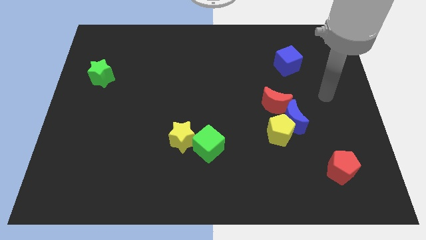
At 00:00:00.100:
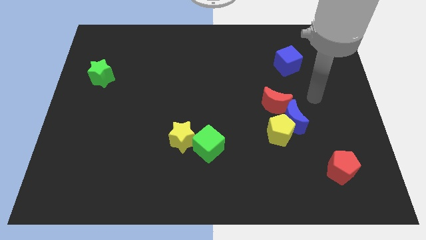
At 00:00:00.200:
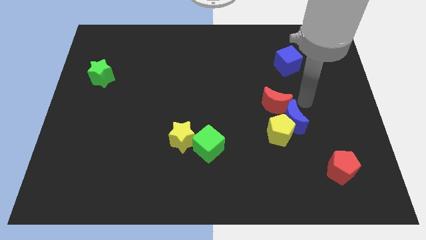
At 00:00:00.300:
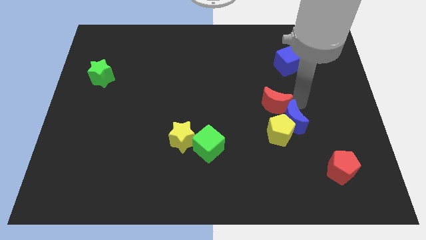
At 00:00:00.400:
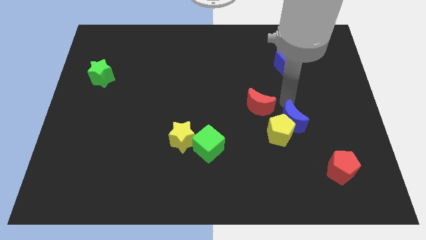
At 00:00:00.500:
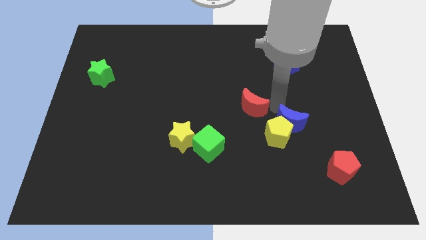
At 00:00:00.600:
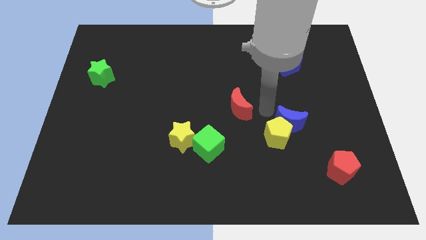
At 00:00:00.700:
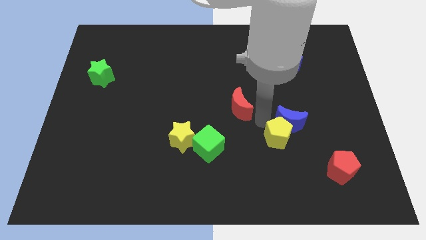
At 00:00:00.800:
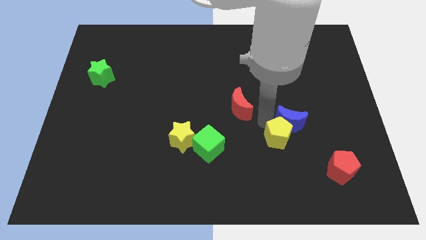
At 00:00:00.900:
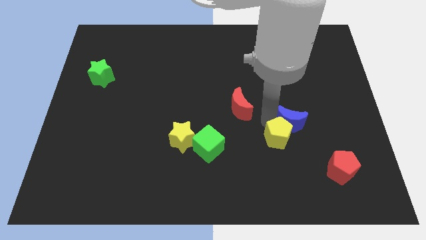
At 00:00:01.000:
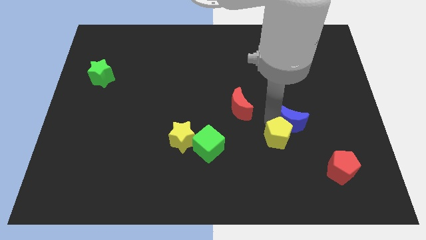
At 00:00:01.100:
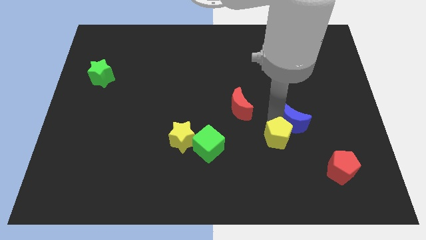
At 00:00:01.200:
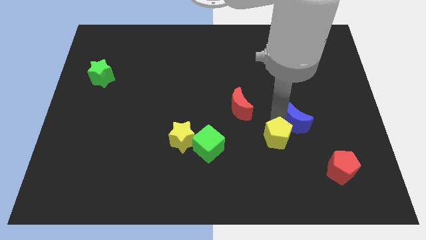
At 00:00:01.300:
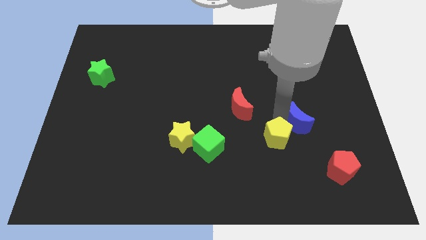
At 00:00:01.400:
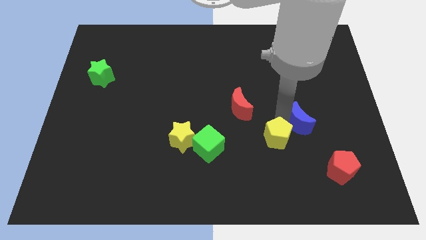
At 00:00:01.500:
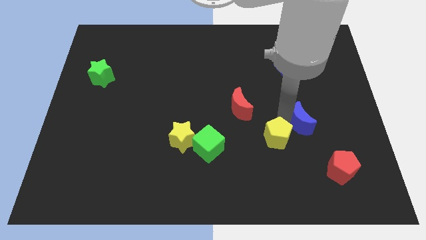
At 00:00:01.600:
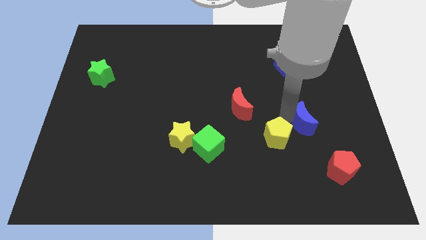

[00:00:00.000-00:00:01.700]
separate the blue moon from the yellow pentagon and red moon

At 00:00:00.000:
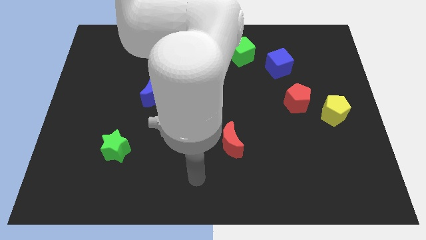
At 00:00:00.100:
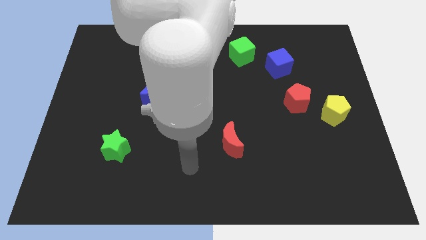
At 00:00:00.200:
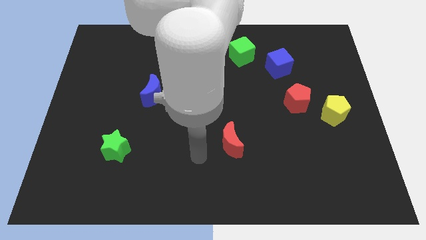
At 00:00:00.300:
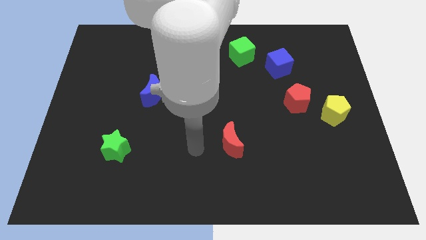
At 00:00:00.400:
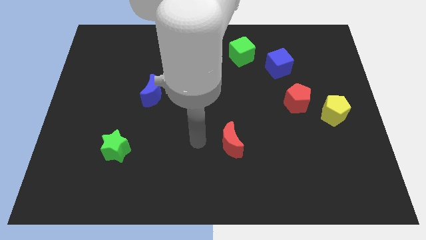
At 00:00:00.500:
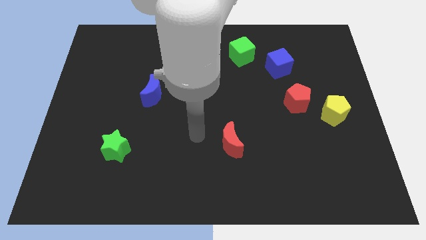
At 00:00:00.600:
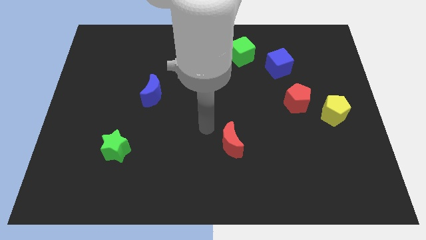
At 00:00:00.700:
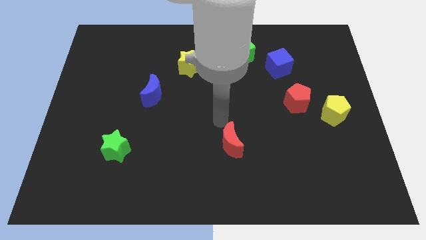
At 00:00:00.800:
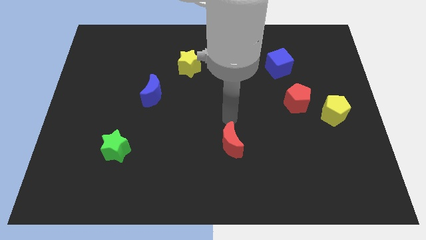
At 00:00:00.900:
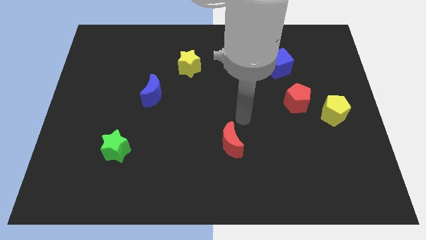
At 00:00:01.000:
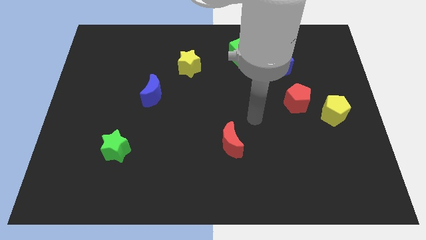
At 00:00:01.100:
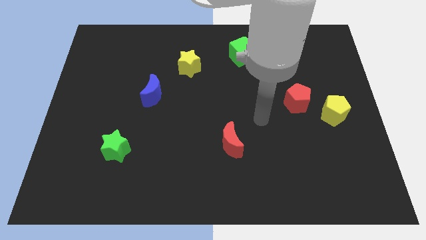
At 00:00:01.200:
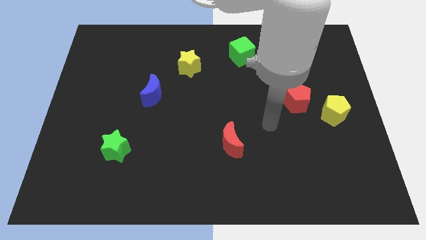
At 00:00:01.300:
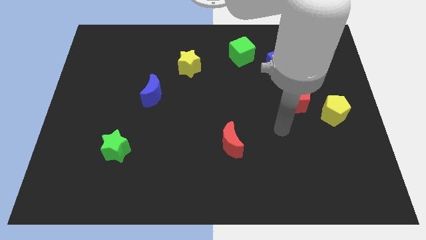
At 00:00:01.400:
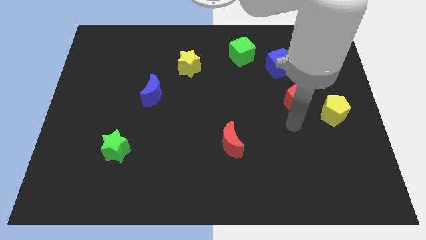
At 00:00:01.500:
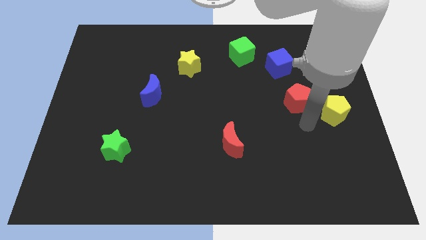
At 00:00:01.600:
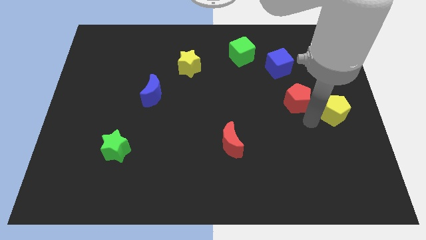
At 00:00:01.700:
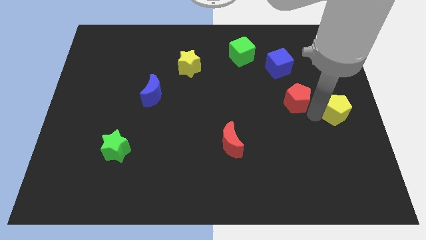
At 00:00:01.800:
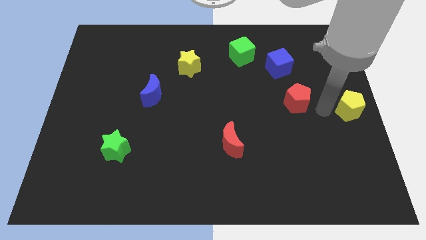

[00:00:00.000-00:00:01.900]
move the red pentagon away from the yellow pentagon

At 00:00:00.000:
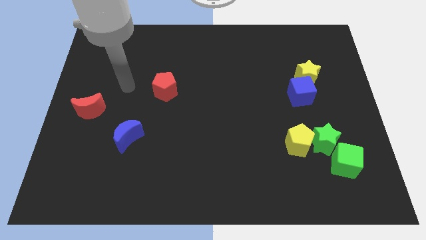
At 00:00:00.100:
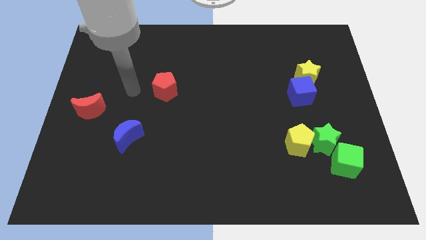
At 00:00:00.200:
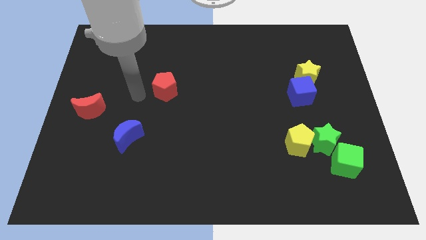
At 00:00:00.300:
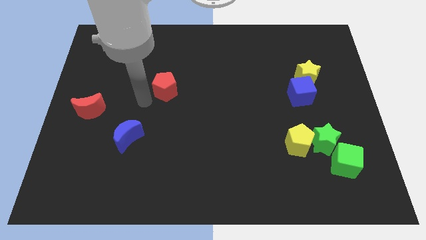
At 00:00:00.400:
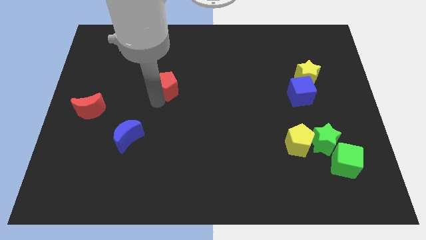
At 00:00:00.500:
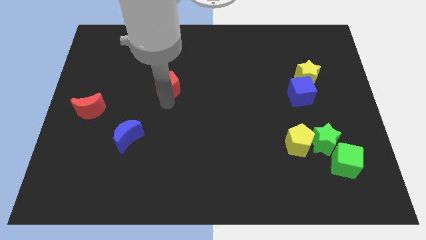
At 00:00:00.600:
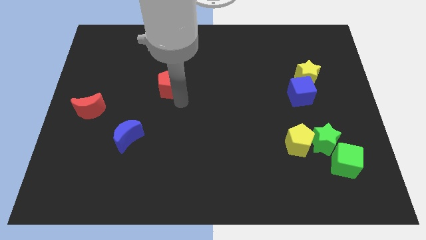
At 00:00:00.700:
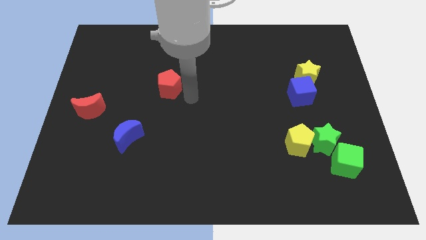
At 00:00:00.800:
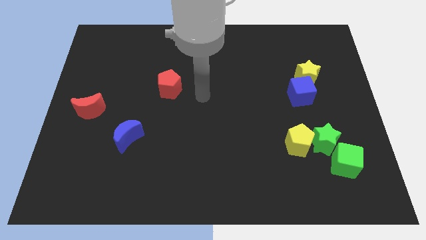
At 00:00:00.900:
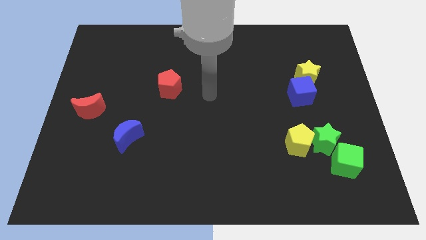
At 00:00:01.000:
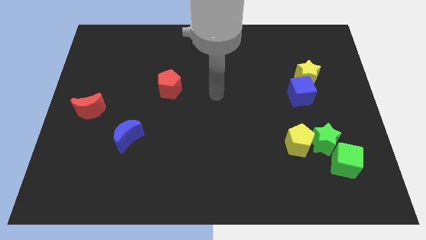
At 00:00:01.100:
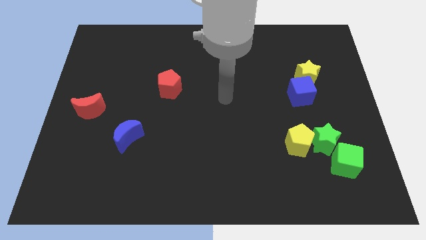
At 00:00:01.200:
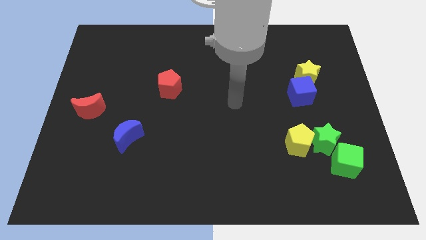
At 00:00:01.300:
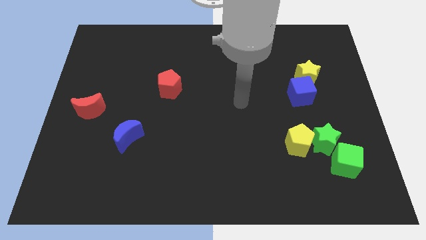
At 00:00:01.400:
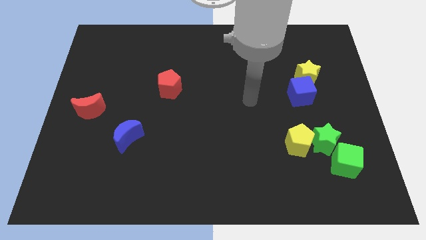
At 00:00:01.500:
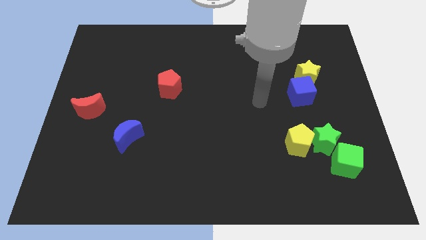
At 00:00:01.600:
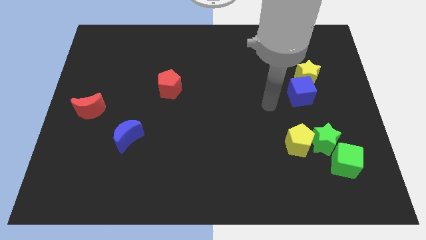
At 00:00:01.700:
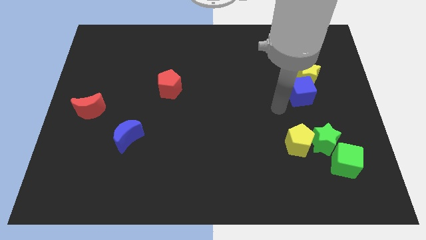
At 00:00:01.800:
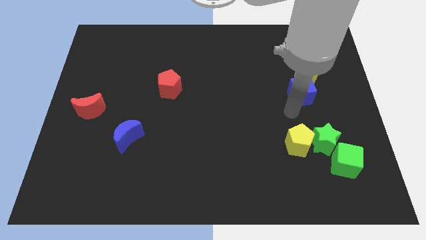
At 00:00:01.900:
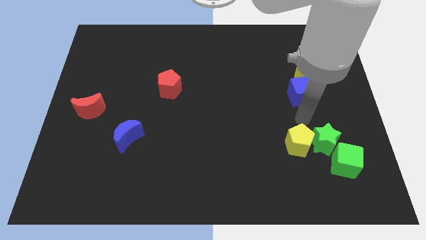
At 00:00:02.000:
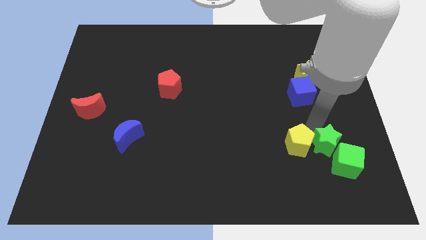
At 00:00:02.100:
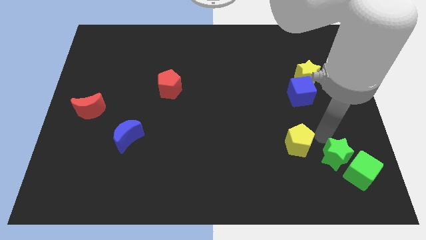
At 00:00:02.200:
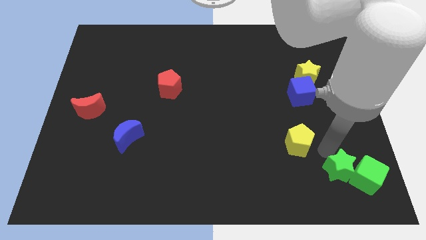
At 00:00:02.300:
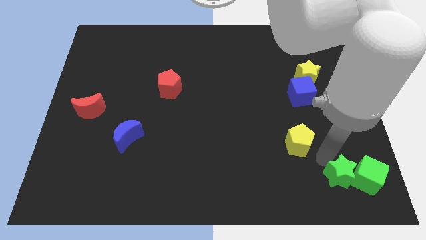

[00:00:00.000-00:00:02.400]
pull the yellow pentagon apart from the green star

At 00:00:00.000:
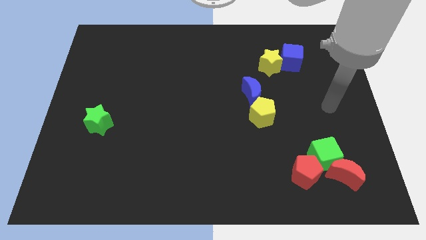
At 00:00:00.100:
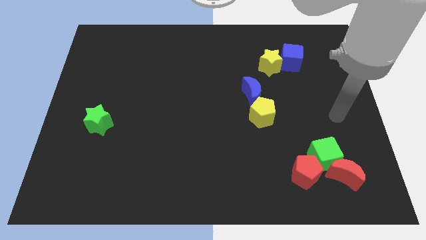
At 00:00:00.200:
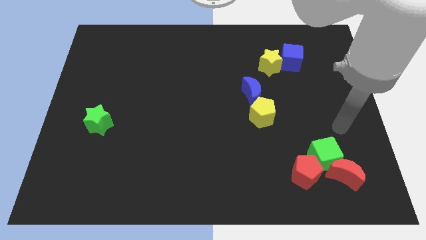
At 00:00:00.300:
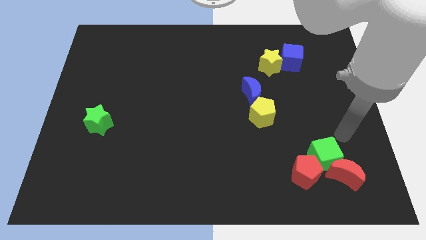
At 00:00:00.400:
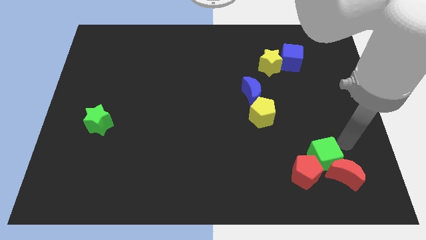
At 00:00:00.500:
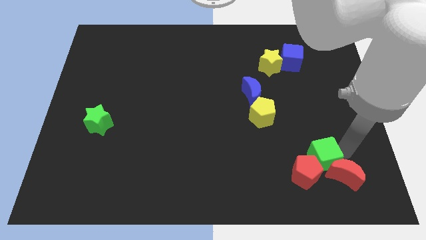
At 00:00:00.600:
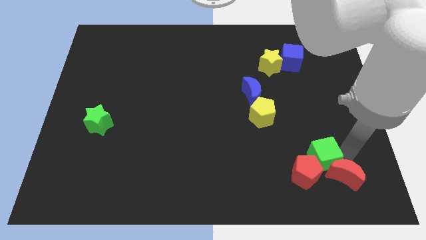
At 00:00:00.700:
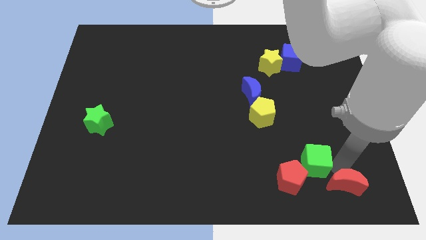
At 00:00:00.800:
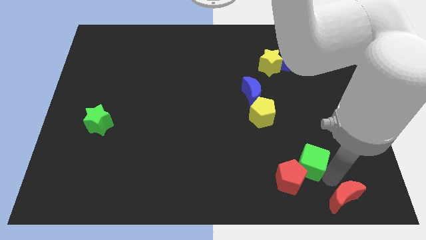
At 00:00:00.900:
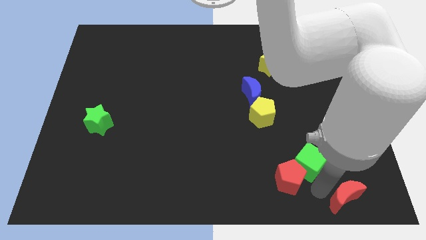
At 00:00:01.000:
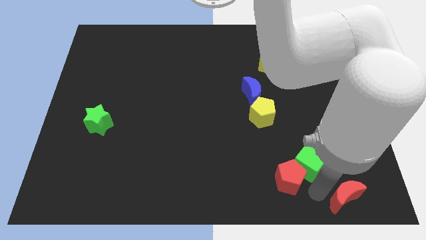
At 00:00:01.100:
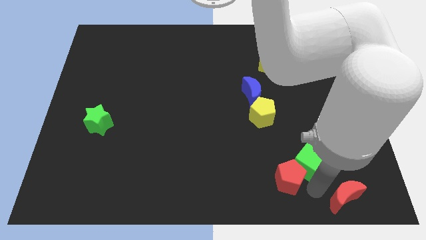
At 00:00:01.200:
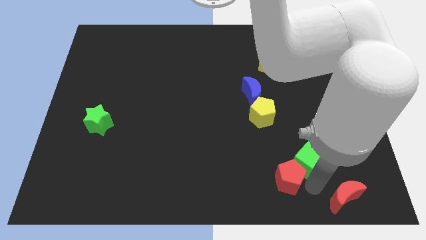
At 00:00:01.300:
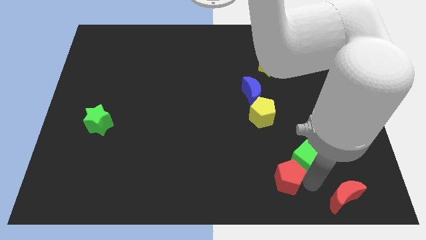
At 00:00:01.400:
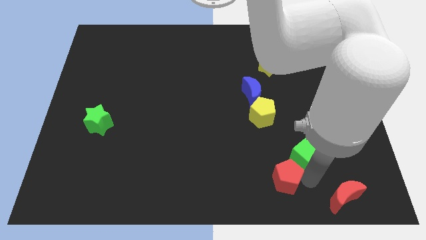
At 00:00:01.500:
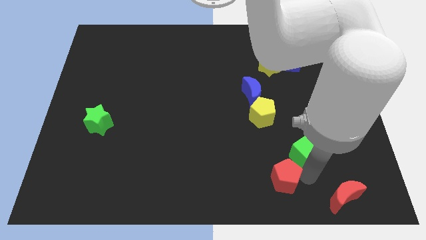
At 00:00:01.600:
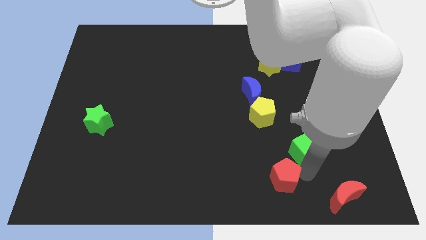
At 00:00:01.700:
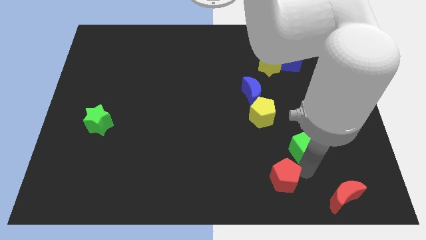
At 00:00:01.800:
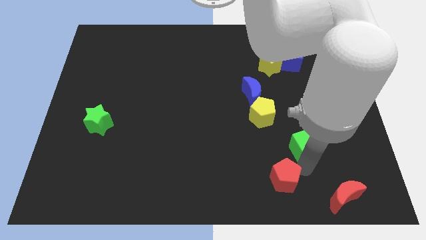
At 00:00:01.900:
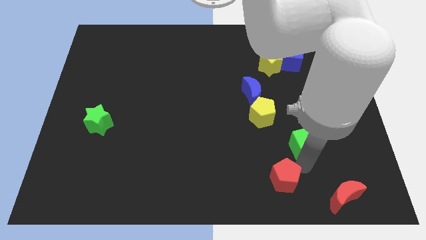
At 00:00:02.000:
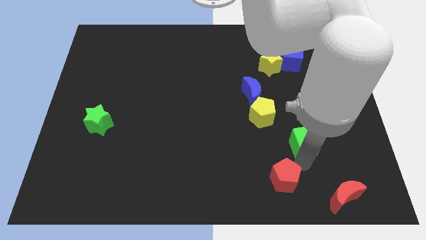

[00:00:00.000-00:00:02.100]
separate the green cube from the red moon and red pentagon

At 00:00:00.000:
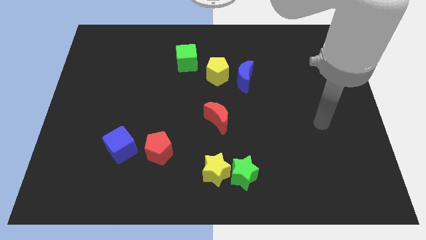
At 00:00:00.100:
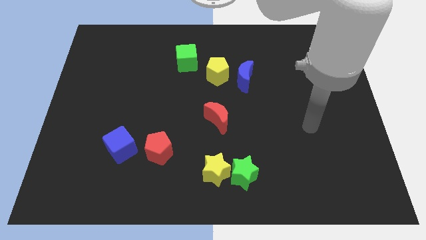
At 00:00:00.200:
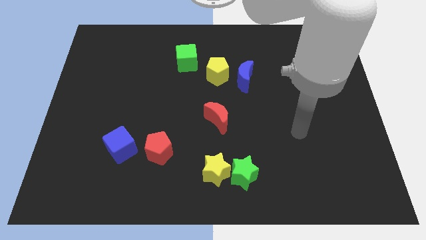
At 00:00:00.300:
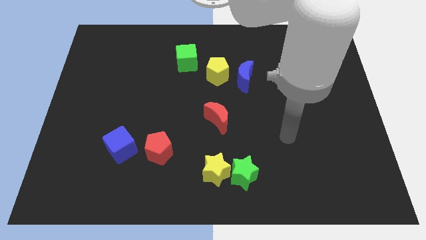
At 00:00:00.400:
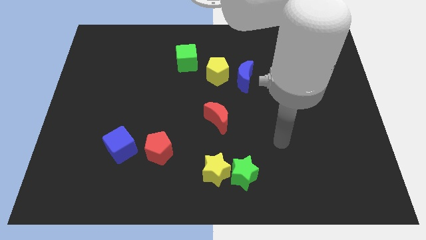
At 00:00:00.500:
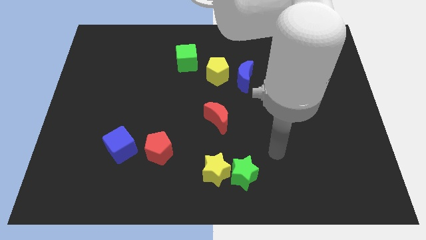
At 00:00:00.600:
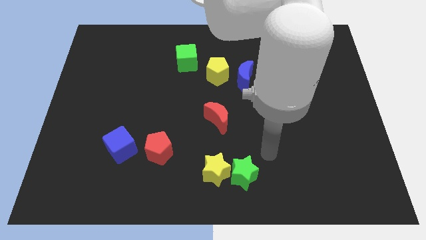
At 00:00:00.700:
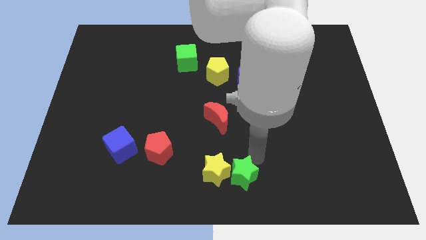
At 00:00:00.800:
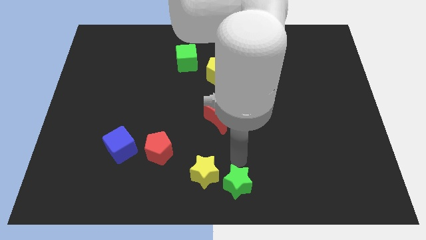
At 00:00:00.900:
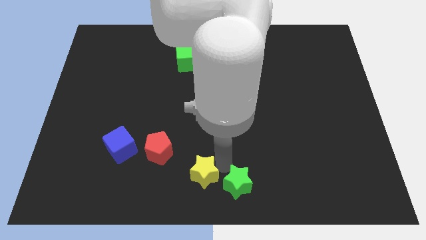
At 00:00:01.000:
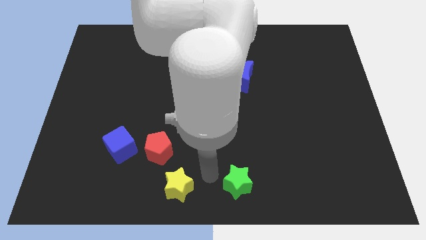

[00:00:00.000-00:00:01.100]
pull the green star apart from the yellow star
